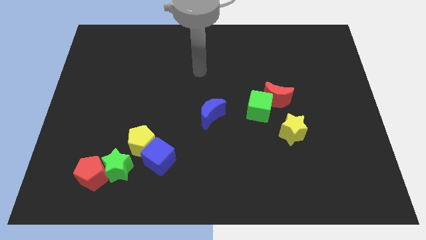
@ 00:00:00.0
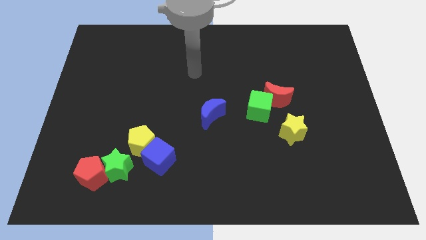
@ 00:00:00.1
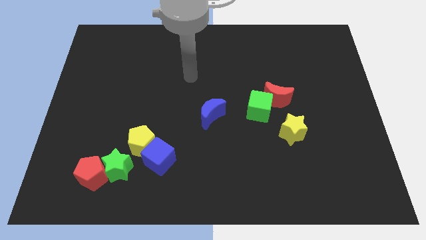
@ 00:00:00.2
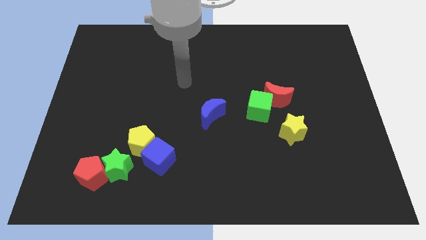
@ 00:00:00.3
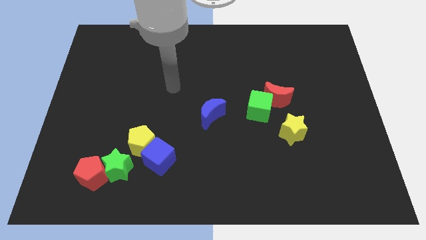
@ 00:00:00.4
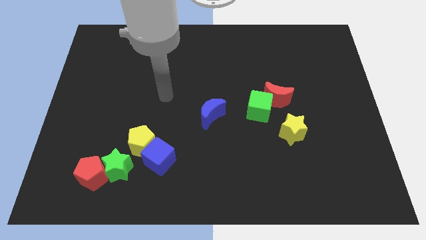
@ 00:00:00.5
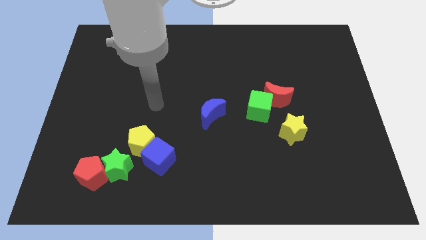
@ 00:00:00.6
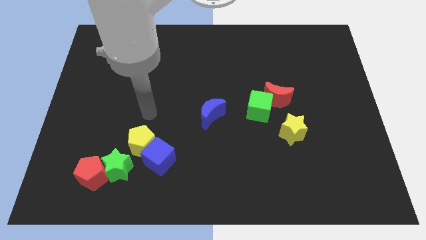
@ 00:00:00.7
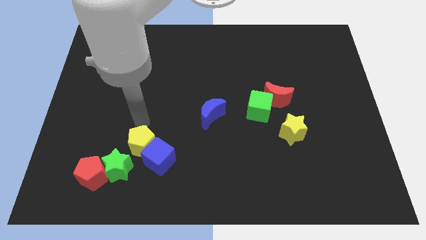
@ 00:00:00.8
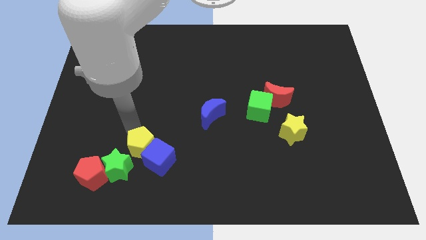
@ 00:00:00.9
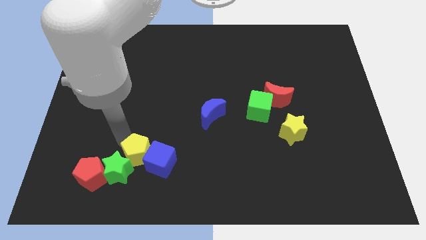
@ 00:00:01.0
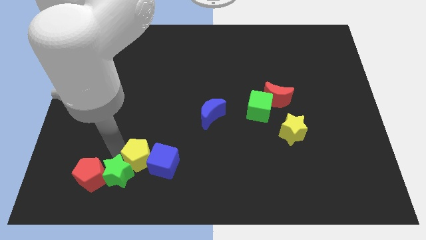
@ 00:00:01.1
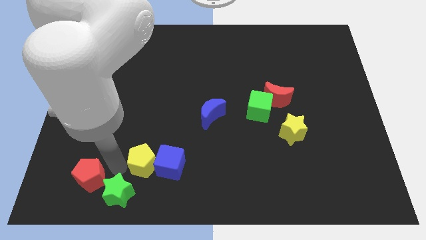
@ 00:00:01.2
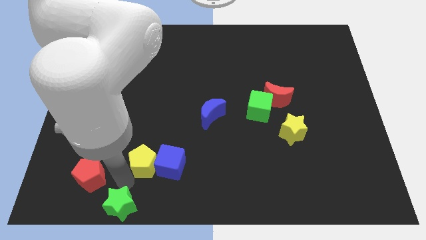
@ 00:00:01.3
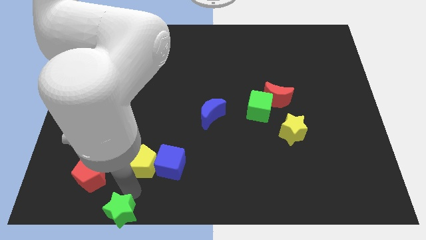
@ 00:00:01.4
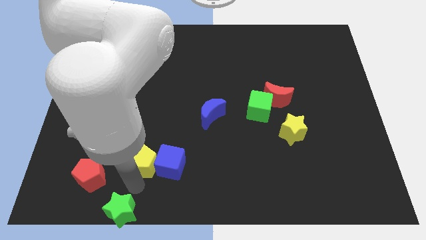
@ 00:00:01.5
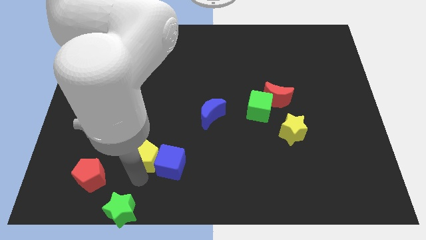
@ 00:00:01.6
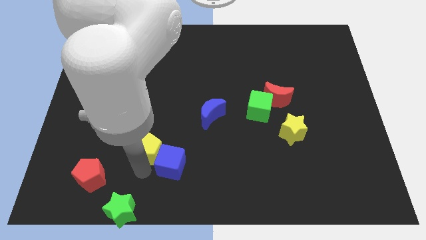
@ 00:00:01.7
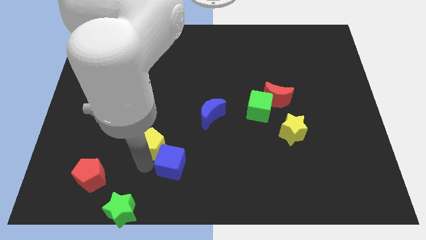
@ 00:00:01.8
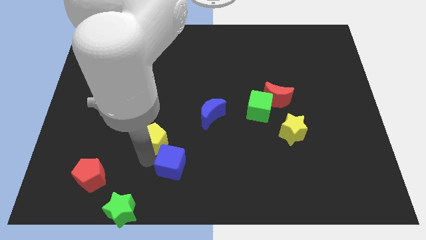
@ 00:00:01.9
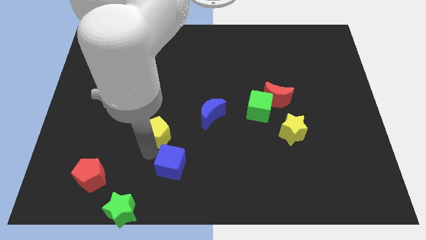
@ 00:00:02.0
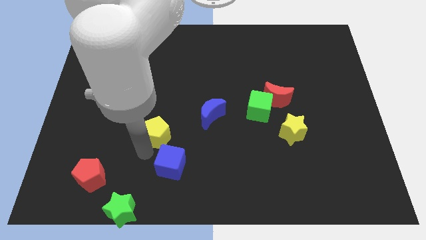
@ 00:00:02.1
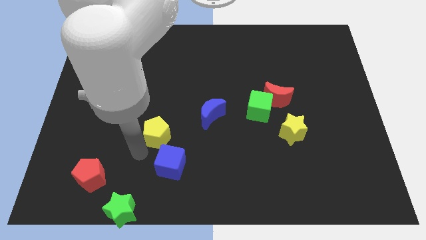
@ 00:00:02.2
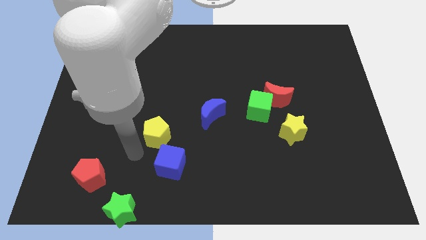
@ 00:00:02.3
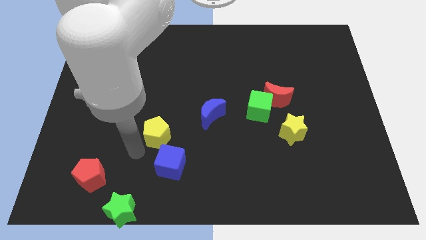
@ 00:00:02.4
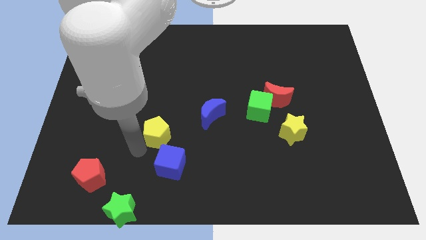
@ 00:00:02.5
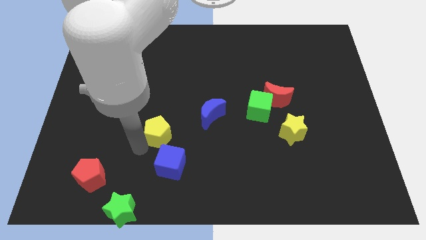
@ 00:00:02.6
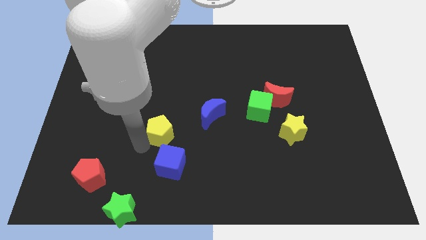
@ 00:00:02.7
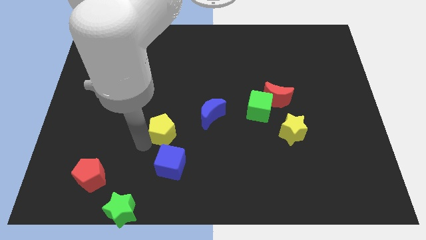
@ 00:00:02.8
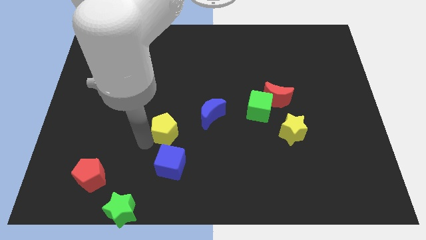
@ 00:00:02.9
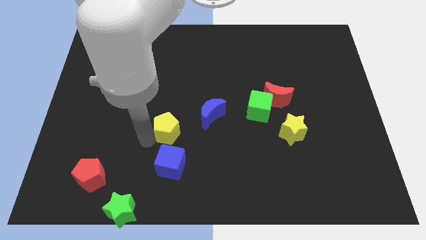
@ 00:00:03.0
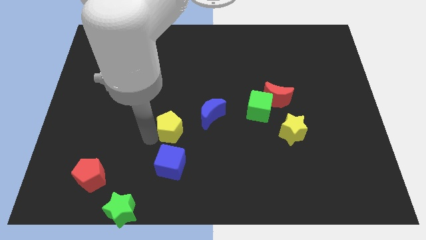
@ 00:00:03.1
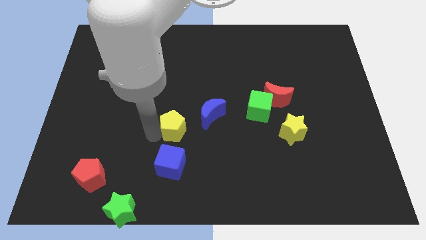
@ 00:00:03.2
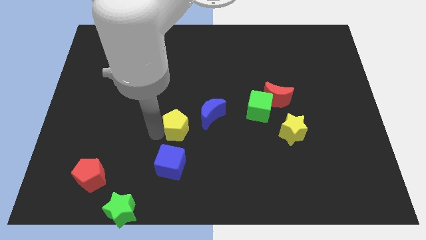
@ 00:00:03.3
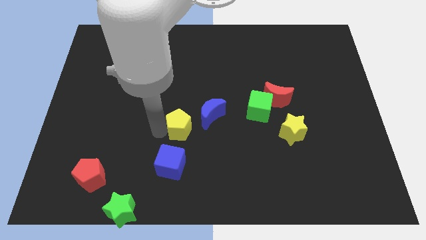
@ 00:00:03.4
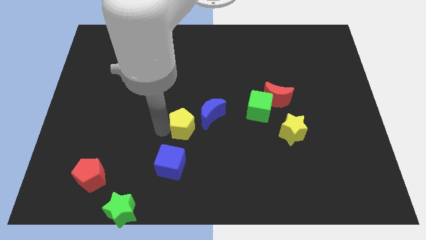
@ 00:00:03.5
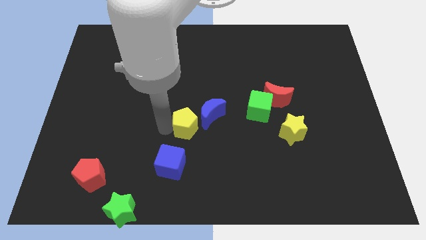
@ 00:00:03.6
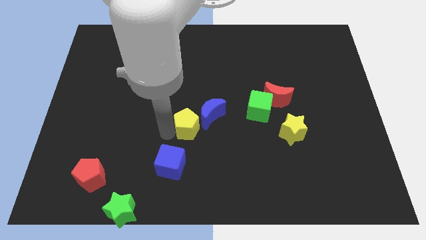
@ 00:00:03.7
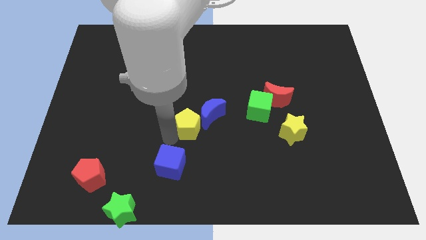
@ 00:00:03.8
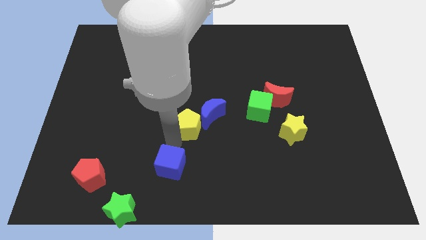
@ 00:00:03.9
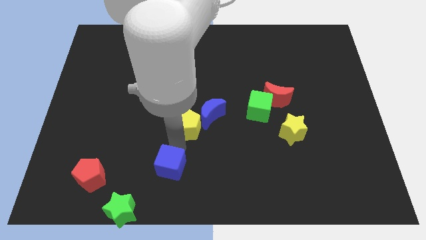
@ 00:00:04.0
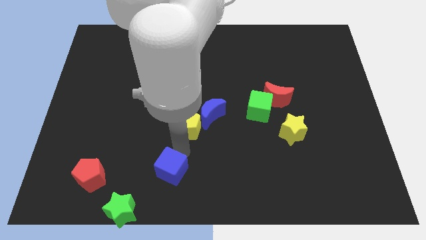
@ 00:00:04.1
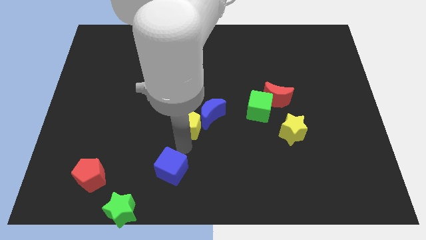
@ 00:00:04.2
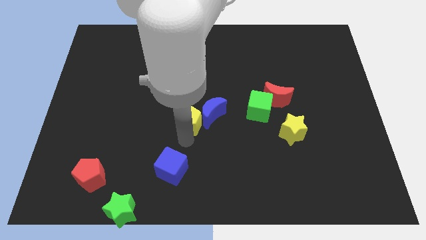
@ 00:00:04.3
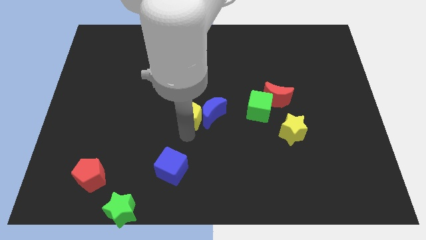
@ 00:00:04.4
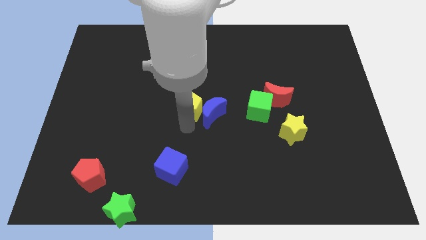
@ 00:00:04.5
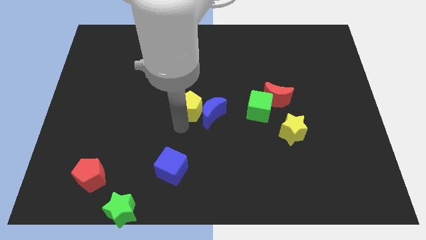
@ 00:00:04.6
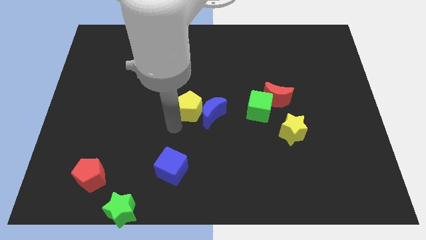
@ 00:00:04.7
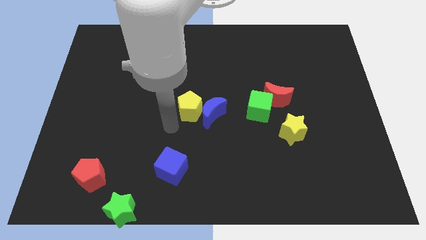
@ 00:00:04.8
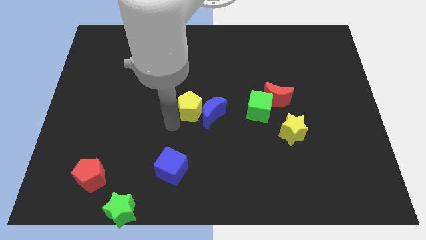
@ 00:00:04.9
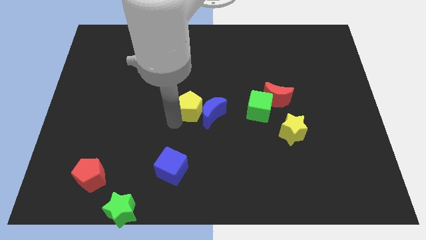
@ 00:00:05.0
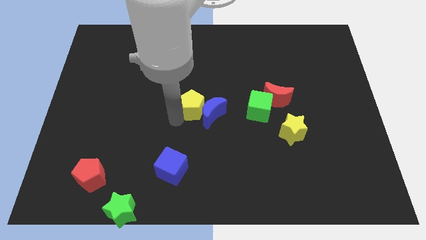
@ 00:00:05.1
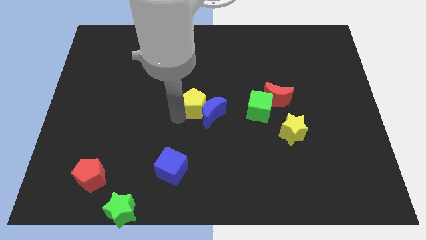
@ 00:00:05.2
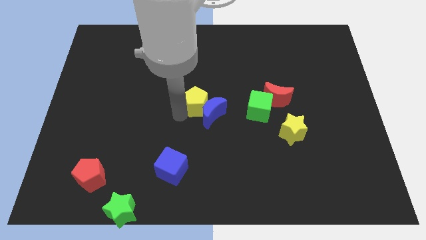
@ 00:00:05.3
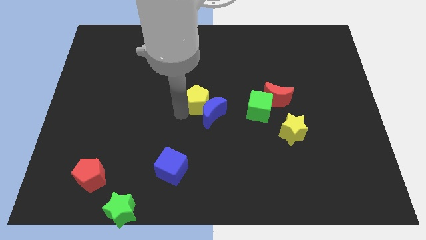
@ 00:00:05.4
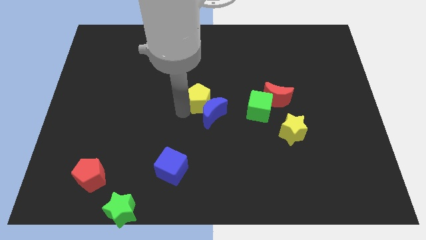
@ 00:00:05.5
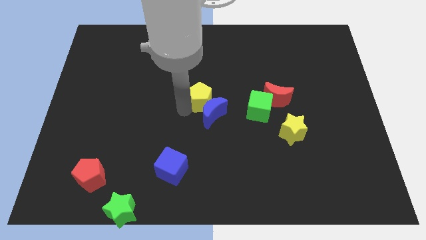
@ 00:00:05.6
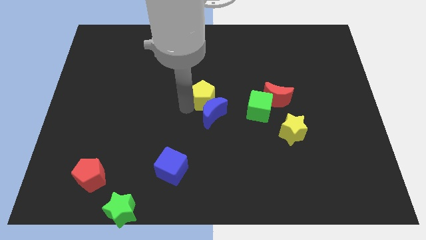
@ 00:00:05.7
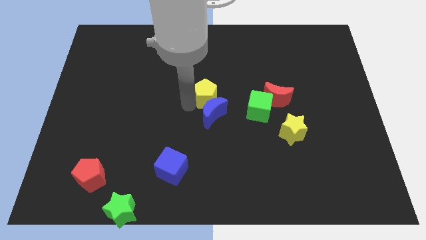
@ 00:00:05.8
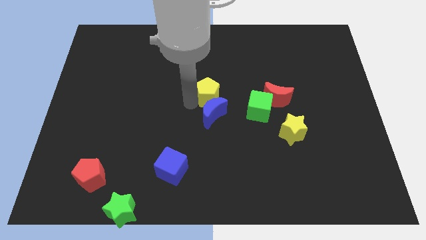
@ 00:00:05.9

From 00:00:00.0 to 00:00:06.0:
push the yellow pentagon up and right diagonally

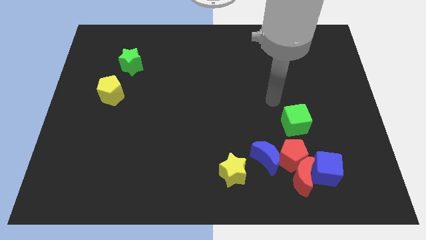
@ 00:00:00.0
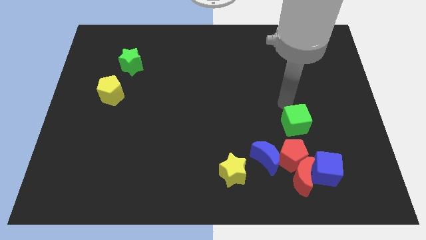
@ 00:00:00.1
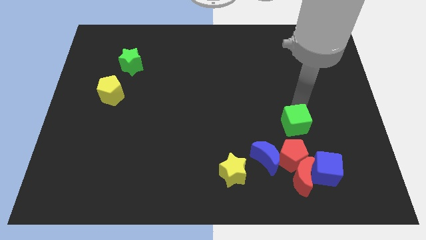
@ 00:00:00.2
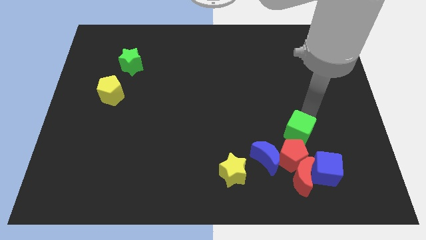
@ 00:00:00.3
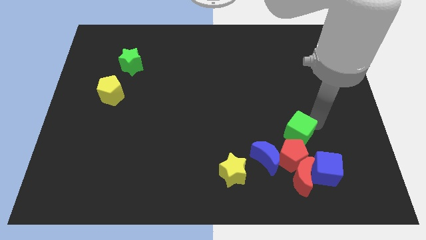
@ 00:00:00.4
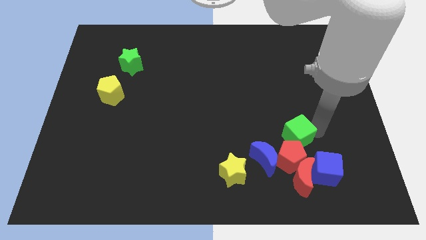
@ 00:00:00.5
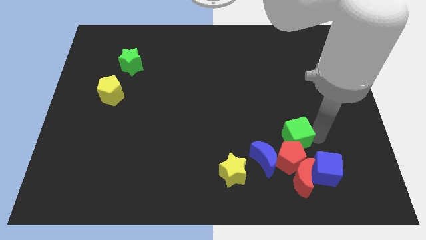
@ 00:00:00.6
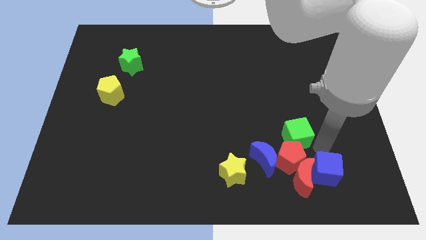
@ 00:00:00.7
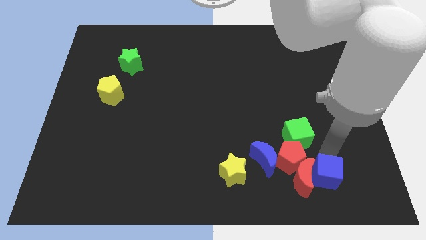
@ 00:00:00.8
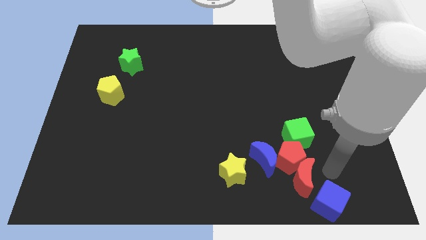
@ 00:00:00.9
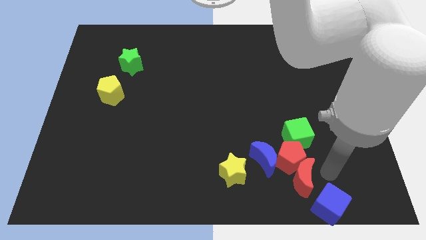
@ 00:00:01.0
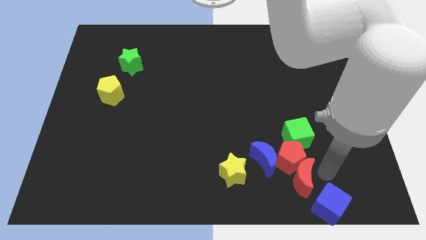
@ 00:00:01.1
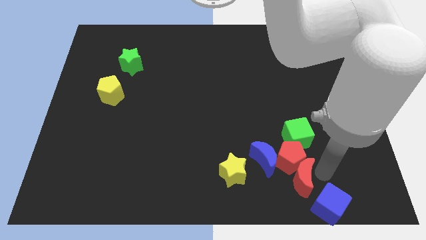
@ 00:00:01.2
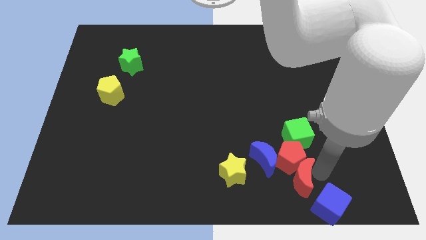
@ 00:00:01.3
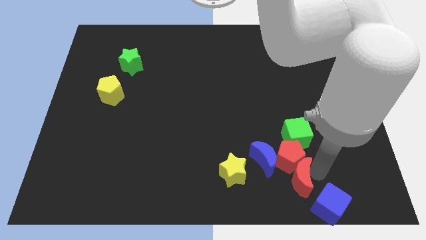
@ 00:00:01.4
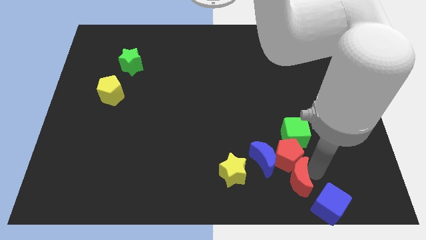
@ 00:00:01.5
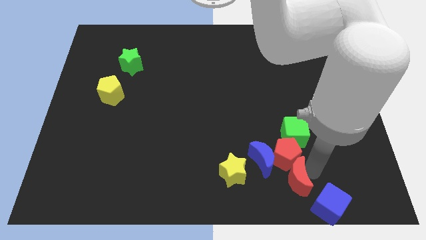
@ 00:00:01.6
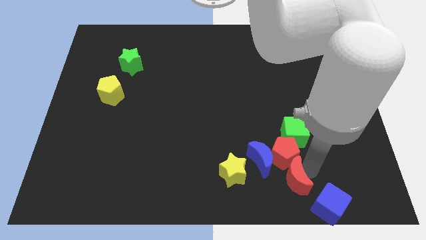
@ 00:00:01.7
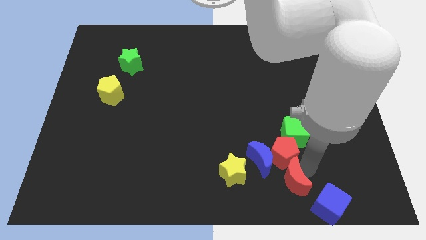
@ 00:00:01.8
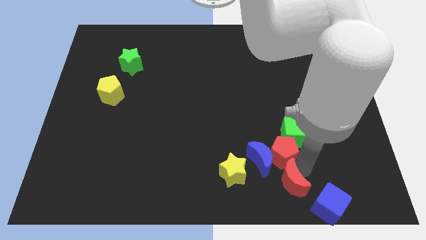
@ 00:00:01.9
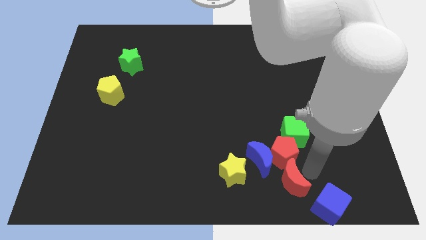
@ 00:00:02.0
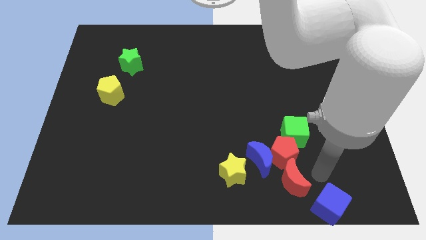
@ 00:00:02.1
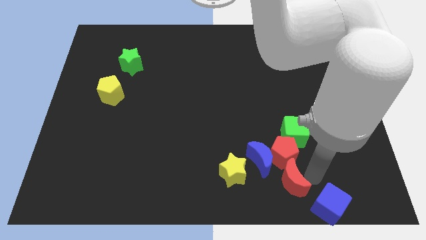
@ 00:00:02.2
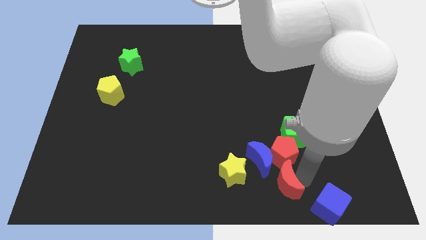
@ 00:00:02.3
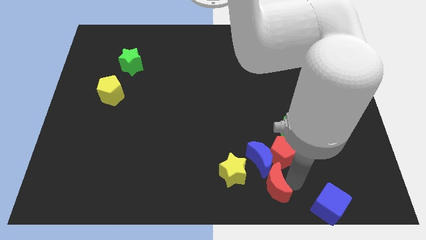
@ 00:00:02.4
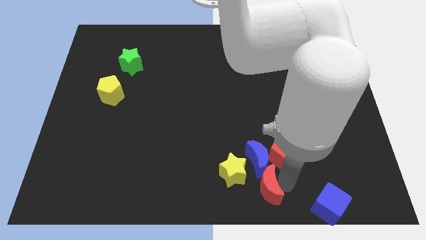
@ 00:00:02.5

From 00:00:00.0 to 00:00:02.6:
slide the red moon to the left a little
